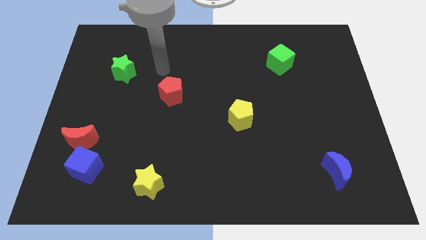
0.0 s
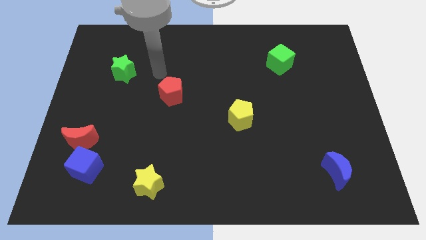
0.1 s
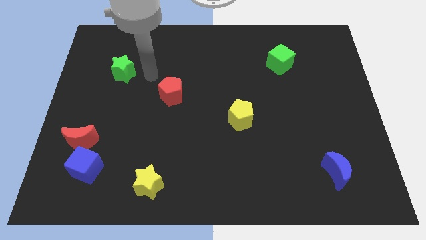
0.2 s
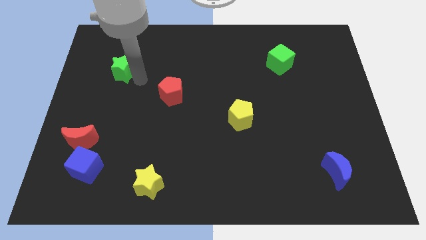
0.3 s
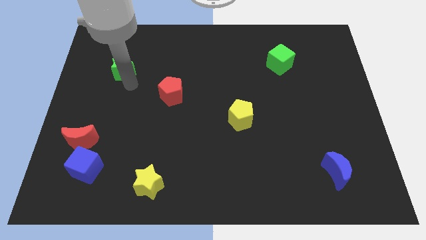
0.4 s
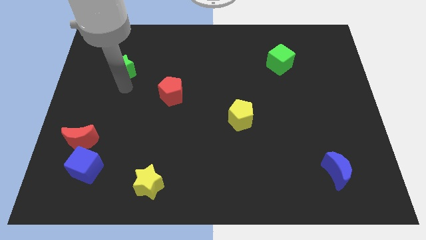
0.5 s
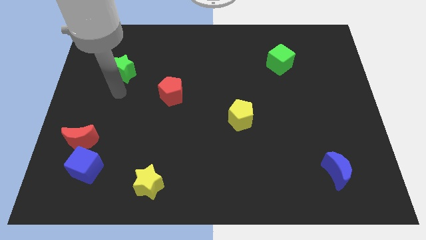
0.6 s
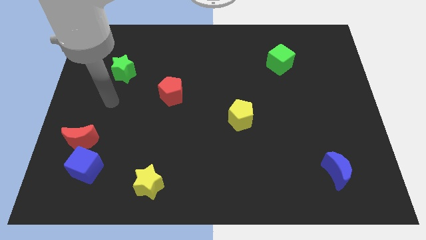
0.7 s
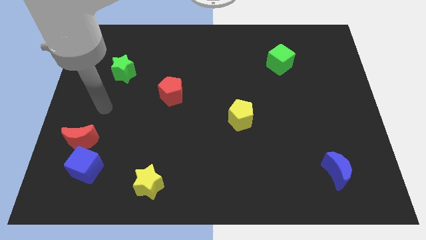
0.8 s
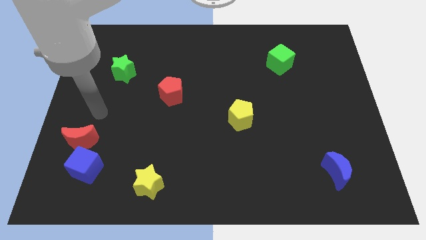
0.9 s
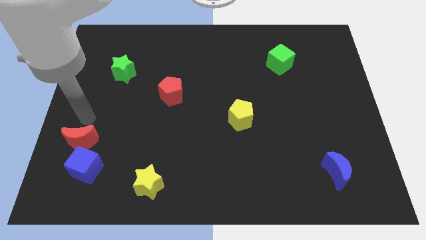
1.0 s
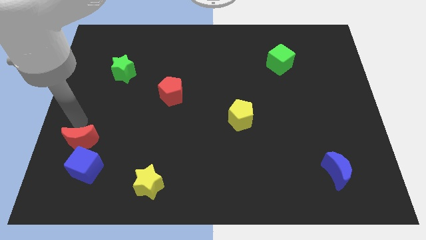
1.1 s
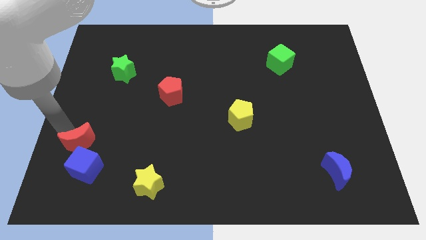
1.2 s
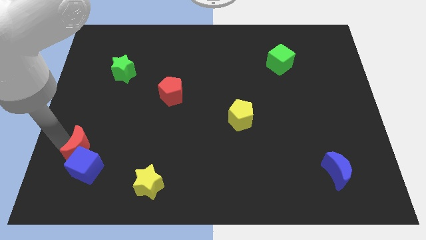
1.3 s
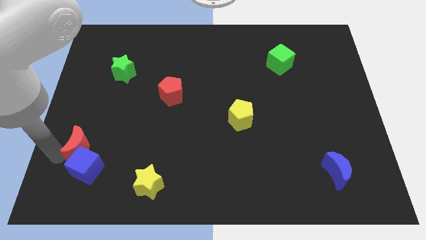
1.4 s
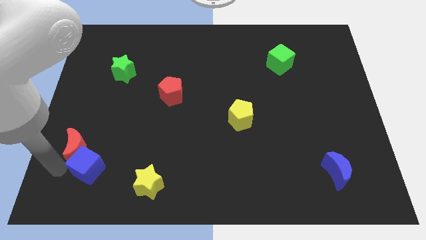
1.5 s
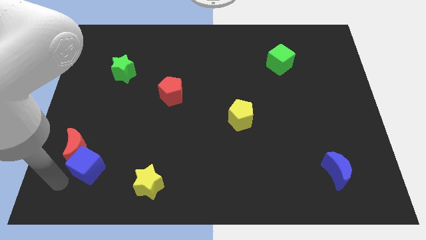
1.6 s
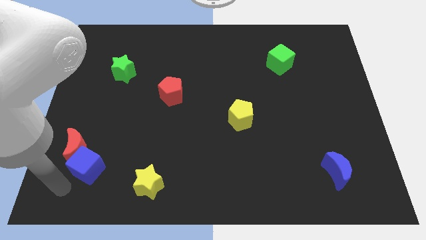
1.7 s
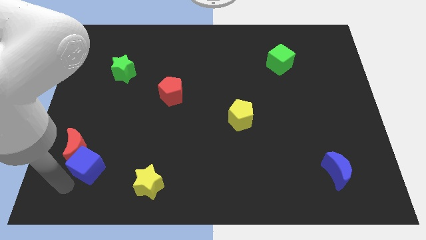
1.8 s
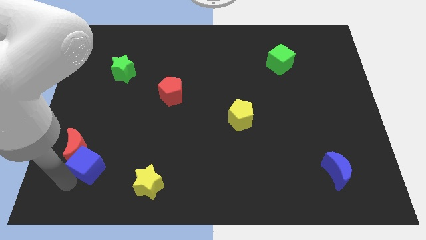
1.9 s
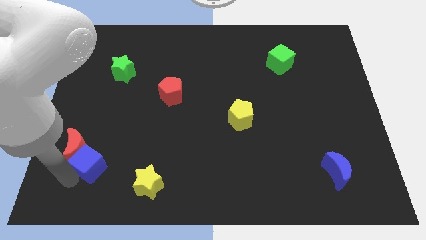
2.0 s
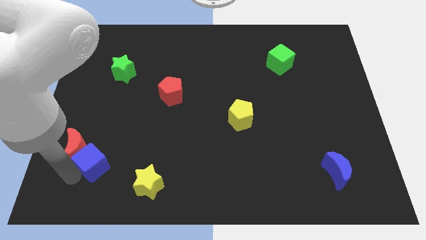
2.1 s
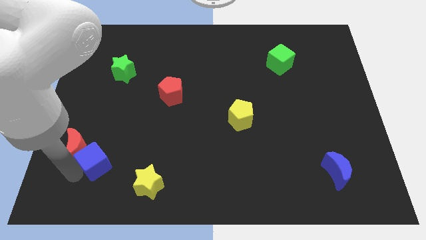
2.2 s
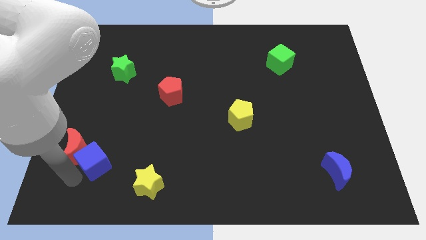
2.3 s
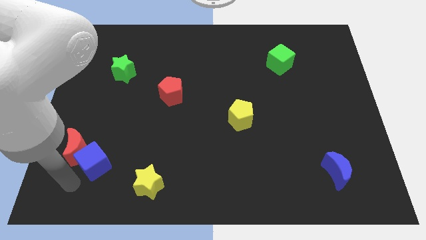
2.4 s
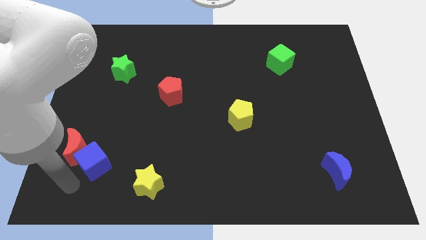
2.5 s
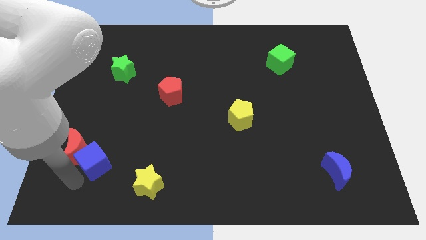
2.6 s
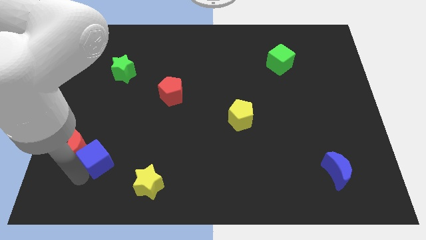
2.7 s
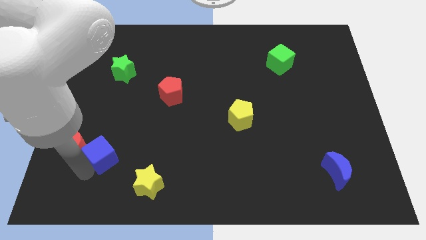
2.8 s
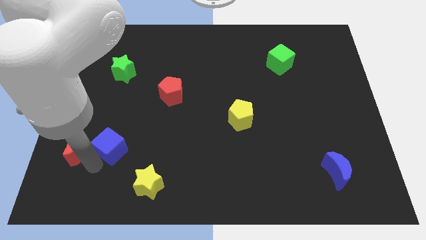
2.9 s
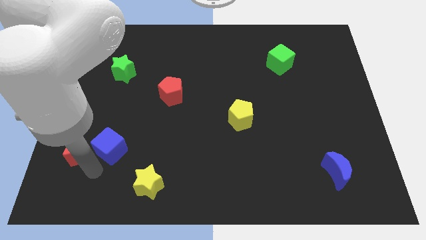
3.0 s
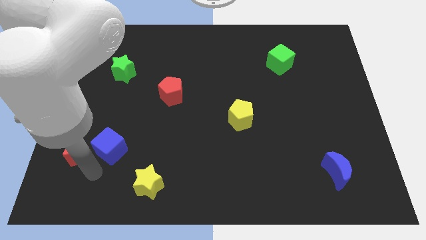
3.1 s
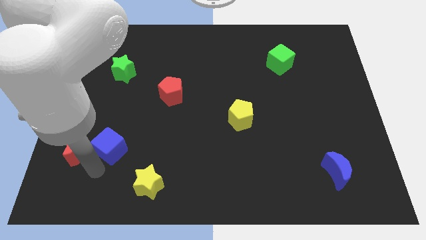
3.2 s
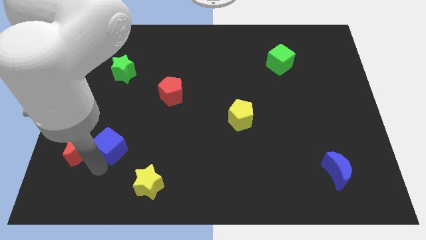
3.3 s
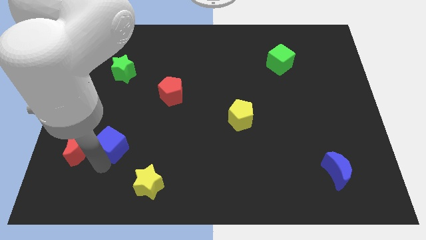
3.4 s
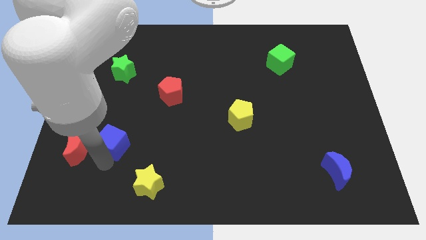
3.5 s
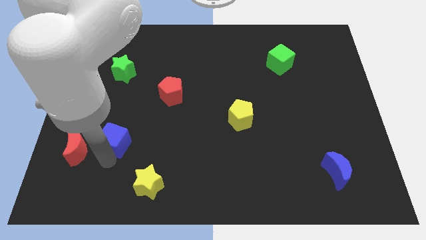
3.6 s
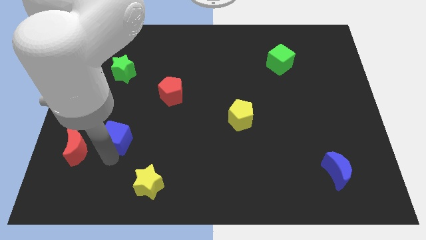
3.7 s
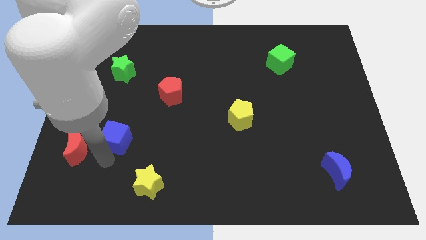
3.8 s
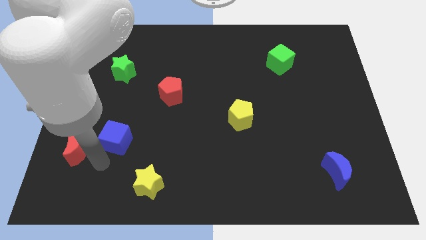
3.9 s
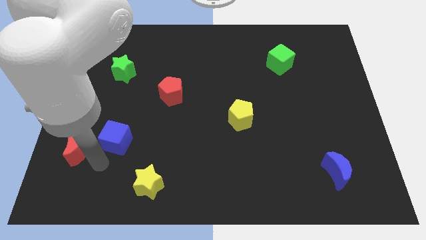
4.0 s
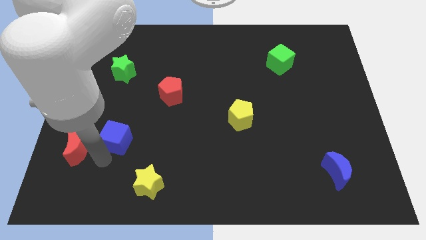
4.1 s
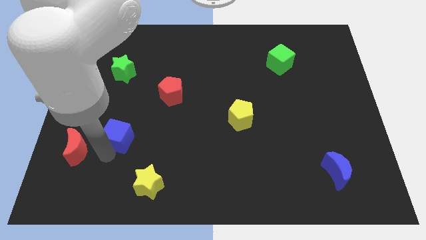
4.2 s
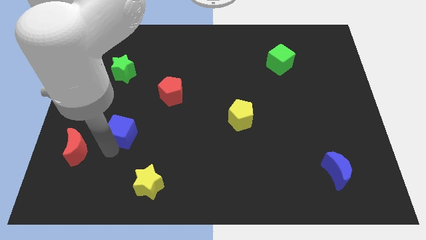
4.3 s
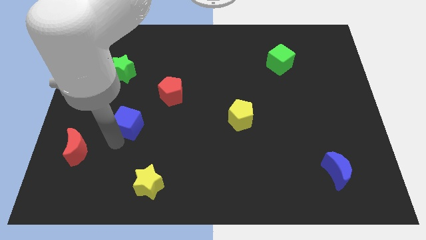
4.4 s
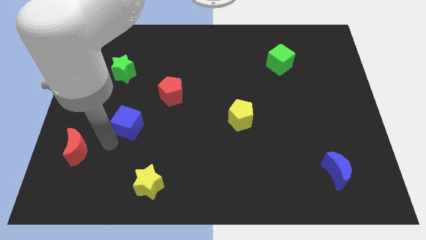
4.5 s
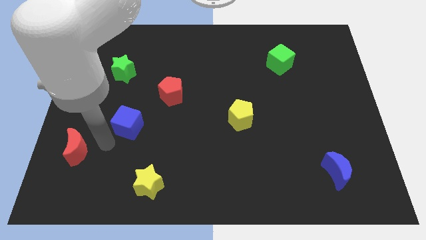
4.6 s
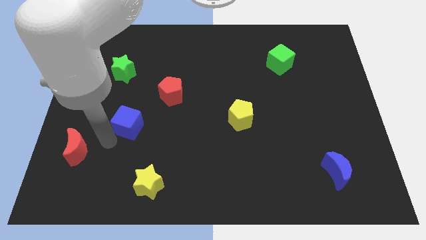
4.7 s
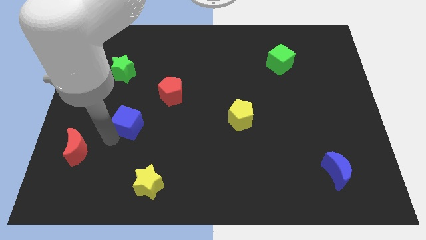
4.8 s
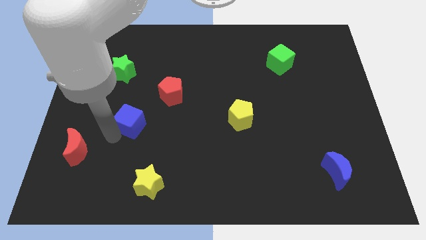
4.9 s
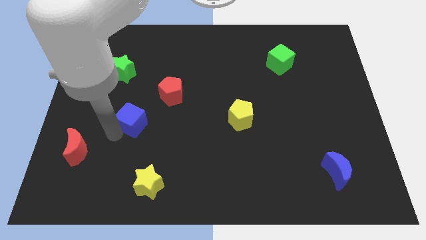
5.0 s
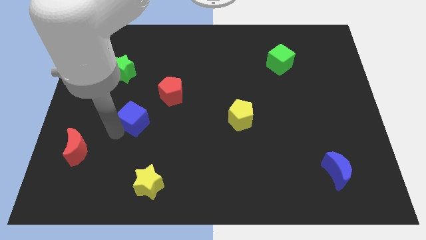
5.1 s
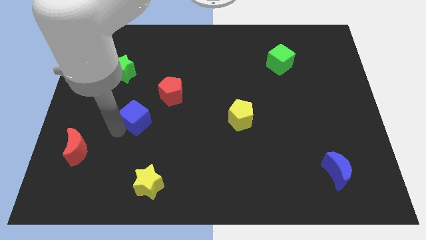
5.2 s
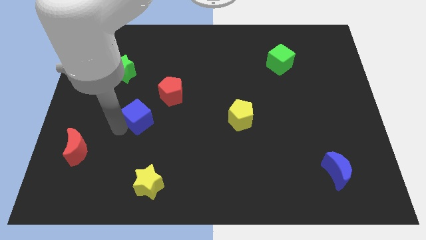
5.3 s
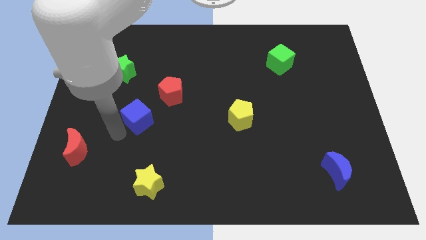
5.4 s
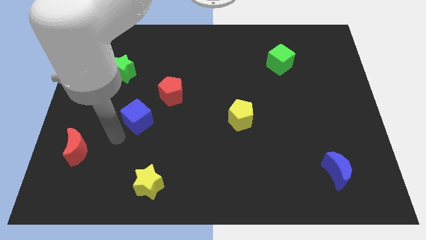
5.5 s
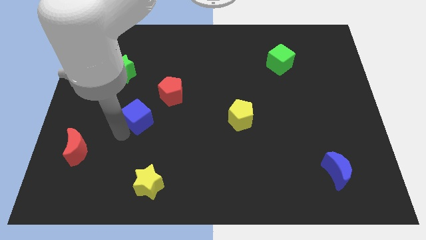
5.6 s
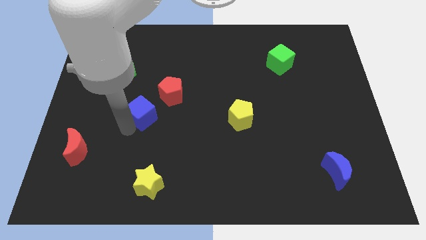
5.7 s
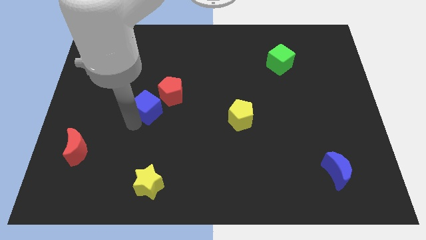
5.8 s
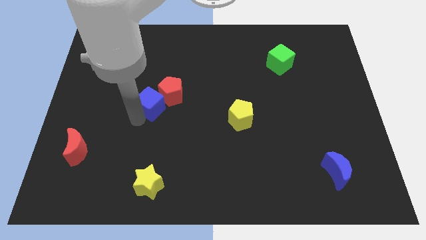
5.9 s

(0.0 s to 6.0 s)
push the blue cube close to the red pentagon
